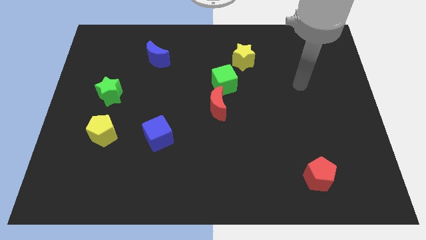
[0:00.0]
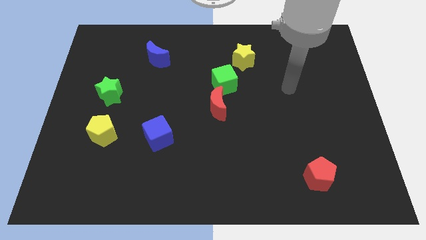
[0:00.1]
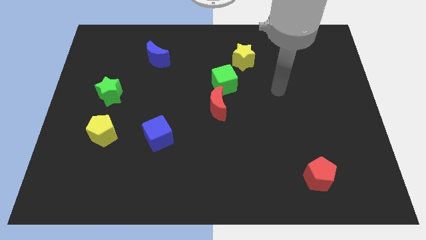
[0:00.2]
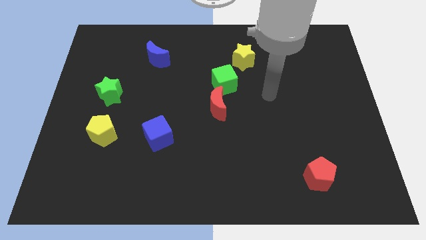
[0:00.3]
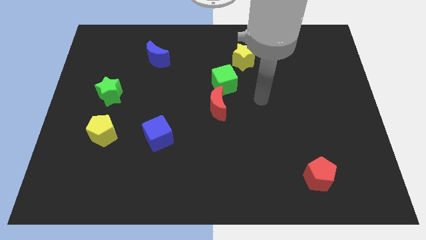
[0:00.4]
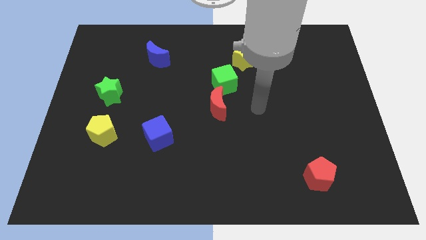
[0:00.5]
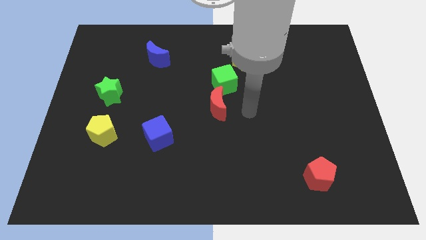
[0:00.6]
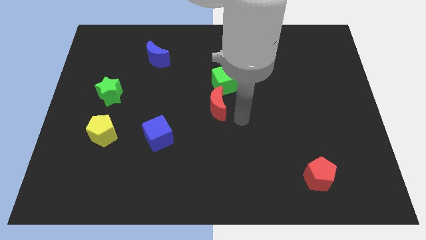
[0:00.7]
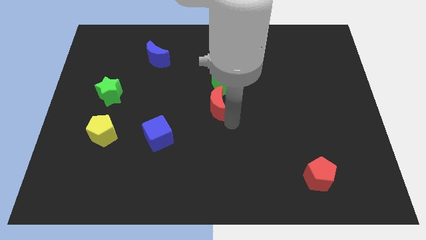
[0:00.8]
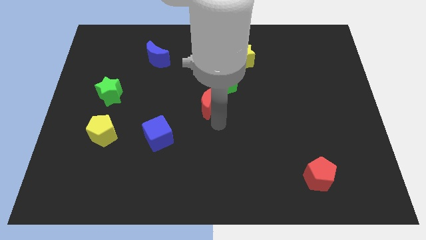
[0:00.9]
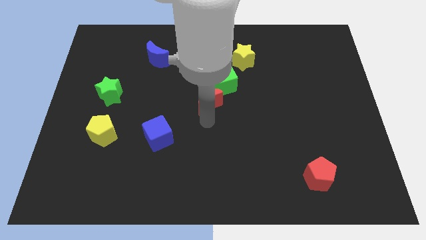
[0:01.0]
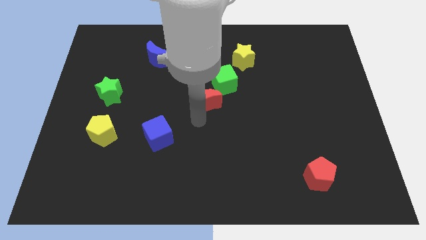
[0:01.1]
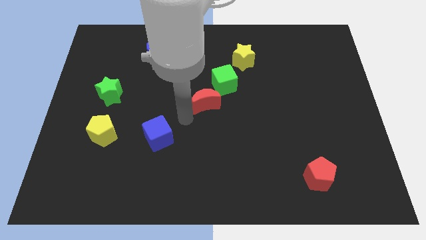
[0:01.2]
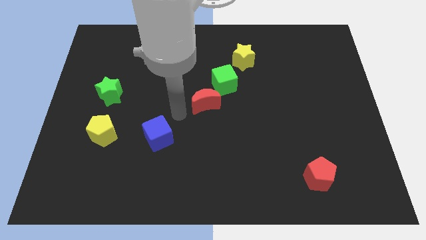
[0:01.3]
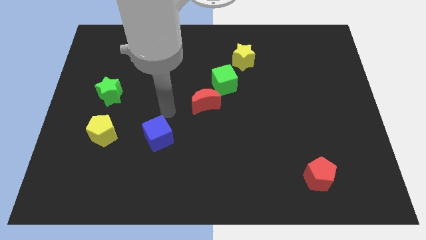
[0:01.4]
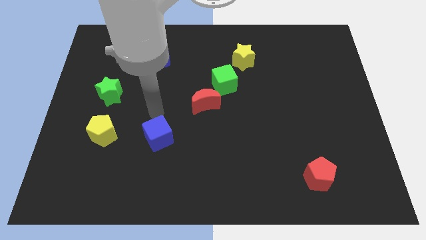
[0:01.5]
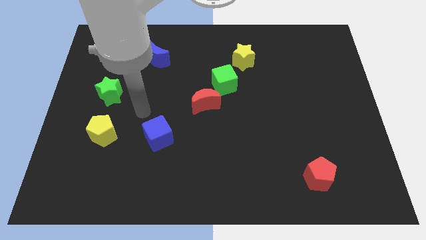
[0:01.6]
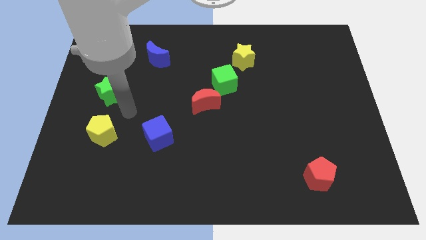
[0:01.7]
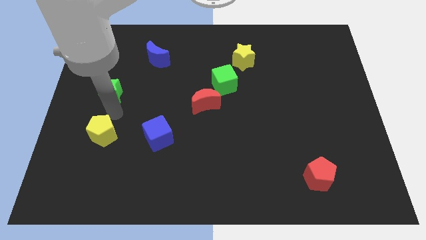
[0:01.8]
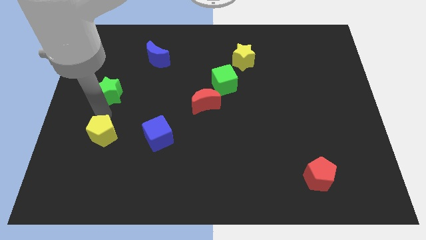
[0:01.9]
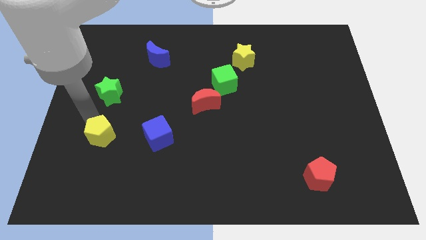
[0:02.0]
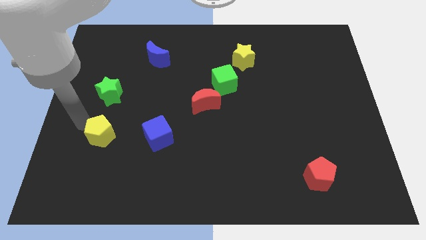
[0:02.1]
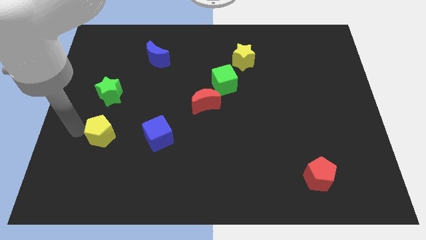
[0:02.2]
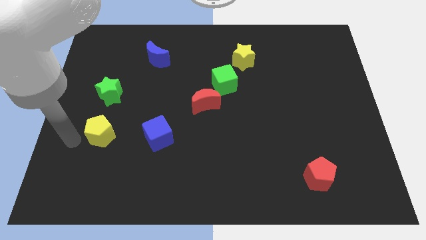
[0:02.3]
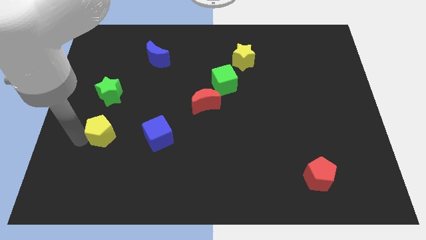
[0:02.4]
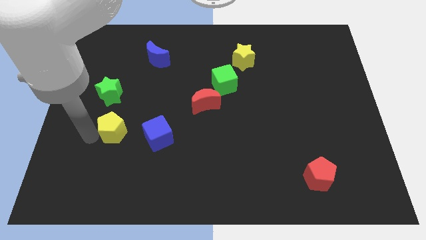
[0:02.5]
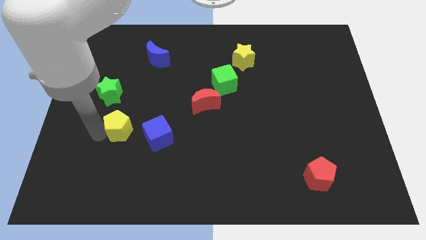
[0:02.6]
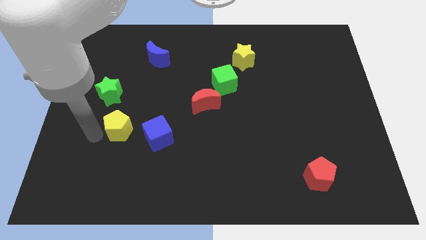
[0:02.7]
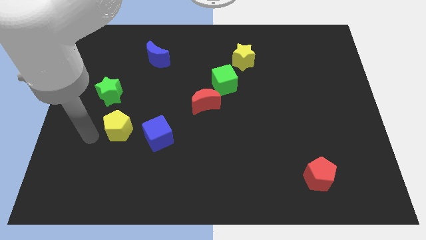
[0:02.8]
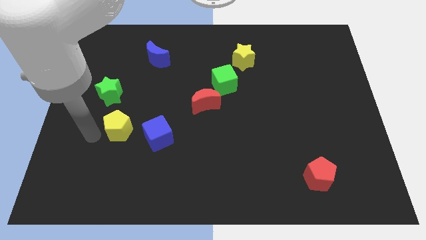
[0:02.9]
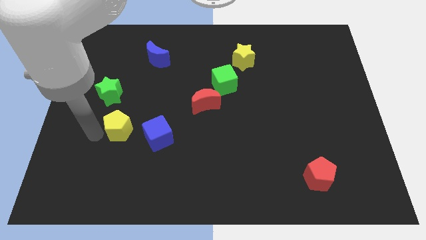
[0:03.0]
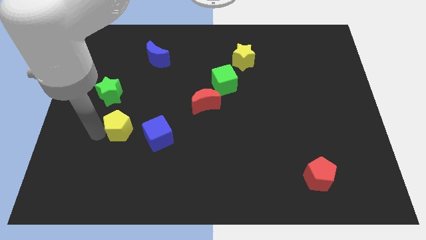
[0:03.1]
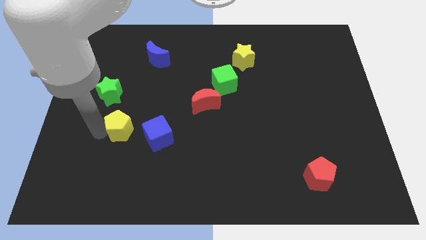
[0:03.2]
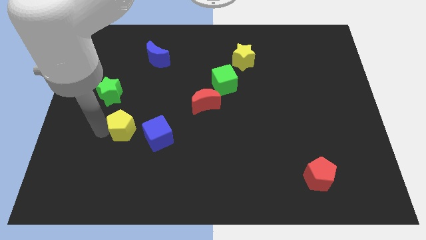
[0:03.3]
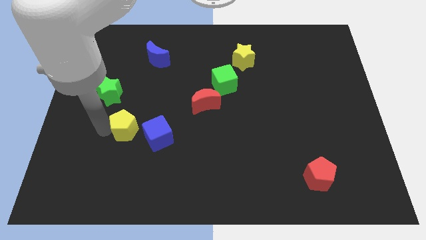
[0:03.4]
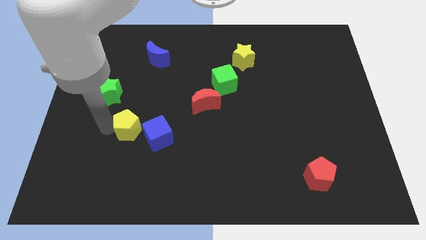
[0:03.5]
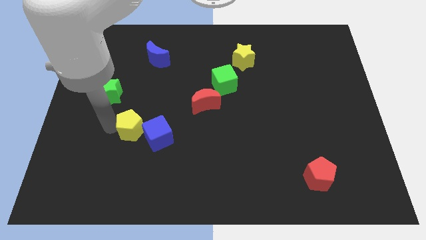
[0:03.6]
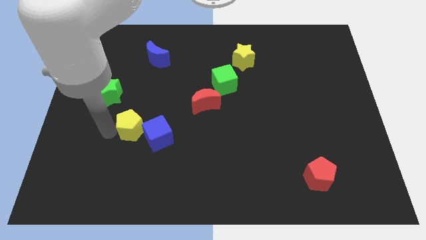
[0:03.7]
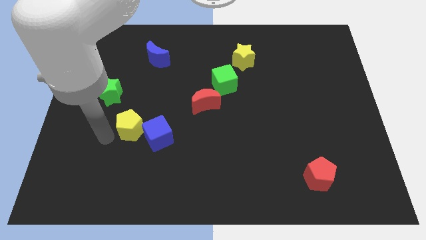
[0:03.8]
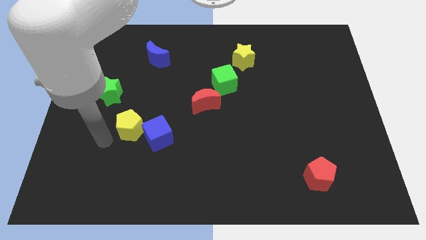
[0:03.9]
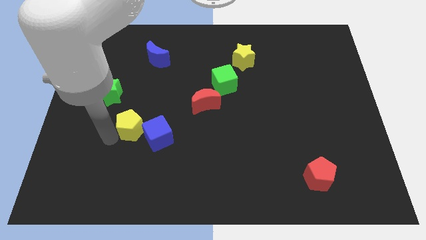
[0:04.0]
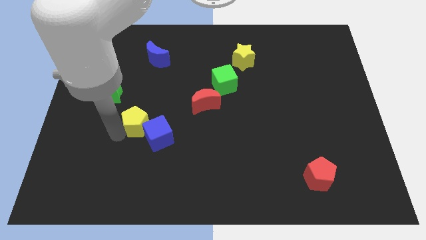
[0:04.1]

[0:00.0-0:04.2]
slightly push the yellow pentagon right

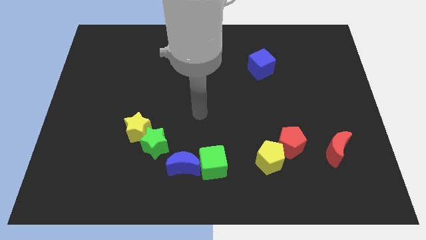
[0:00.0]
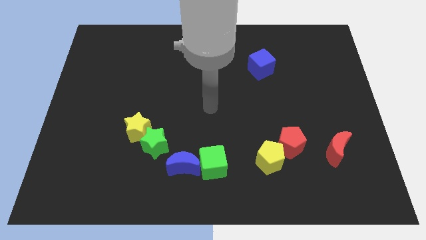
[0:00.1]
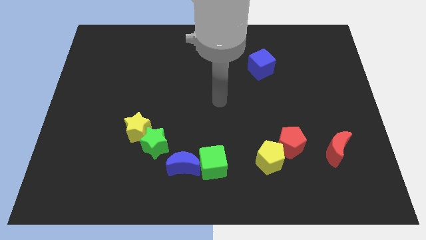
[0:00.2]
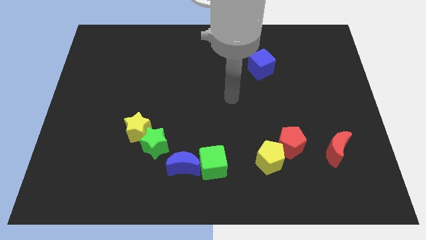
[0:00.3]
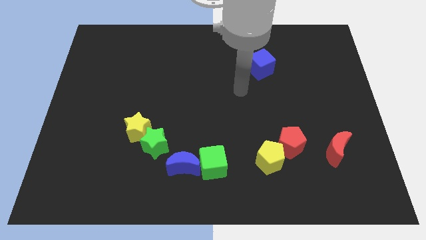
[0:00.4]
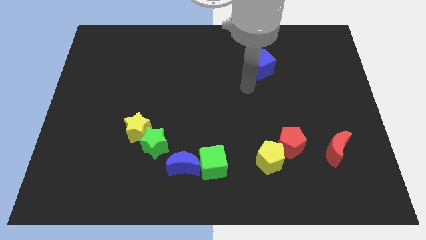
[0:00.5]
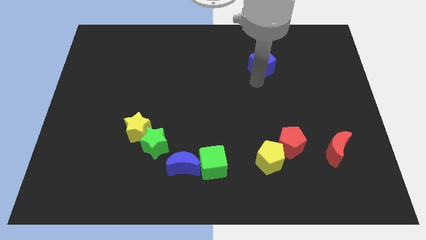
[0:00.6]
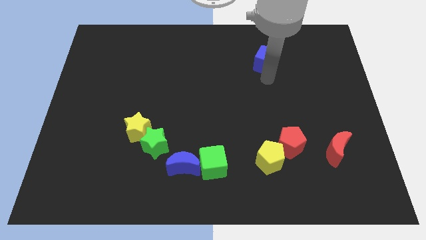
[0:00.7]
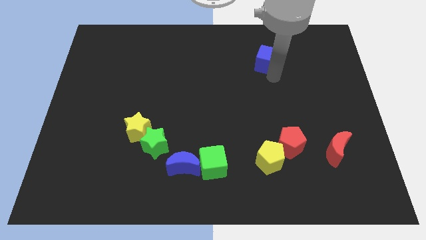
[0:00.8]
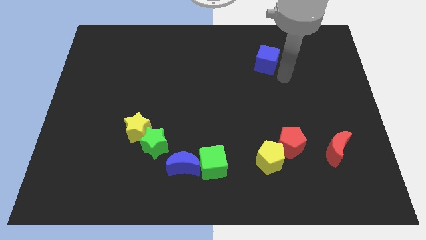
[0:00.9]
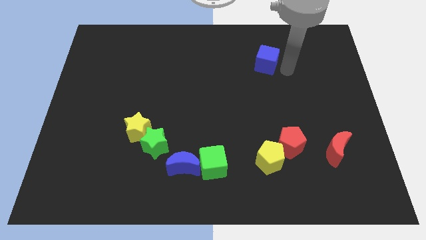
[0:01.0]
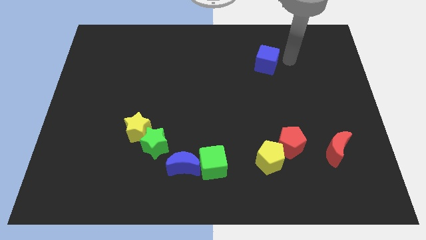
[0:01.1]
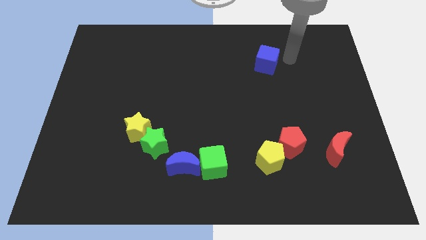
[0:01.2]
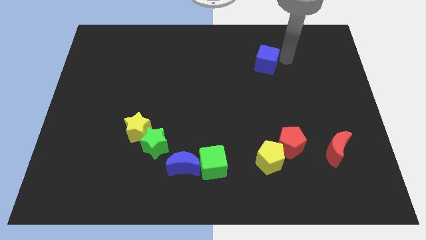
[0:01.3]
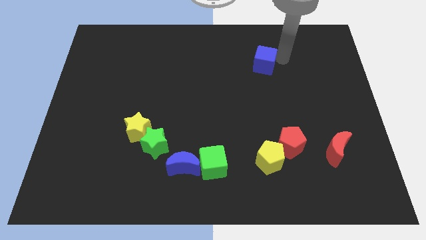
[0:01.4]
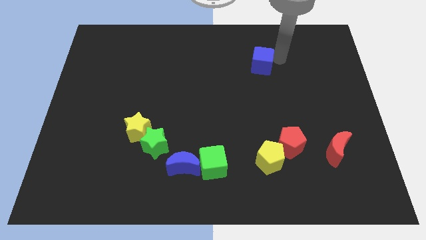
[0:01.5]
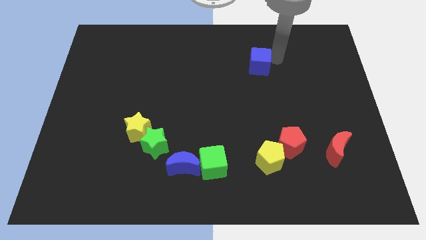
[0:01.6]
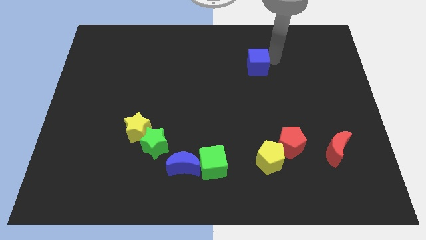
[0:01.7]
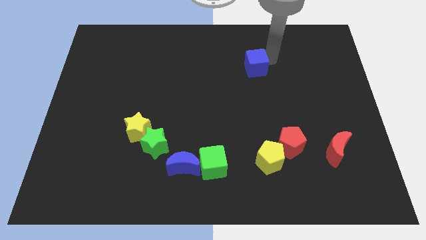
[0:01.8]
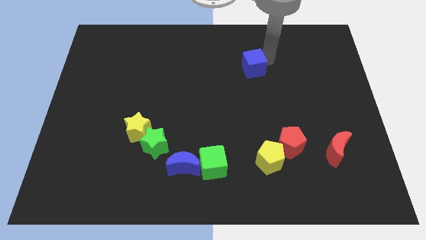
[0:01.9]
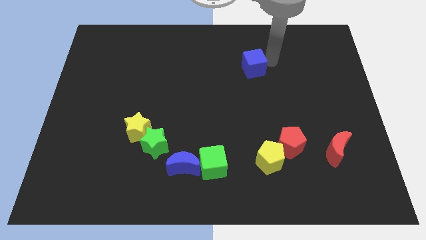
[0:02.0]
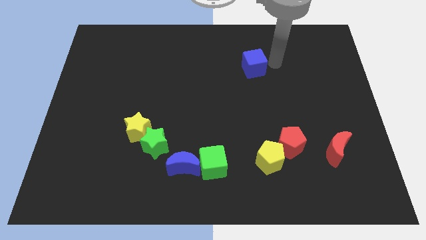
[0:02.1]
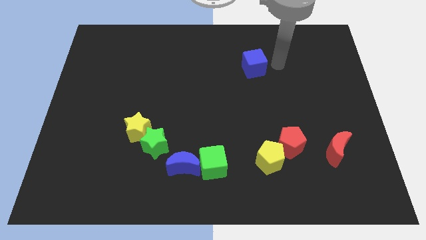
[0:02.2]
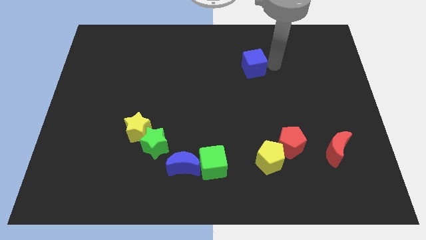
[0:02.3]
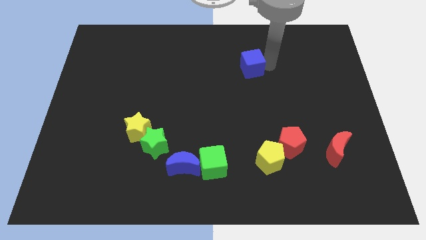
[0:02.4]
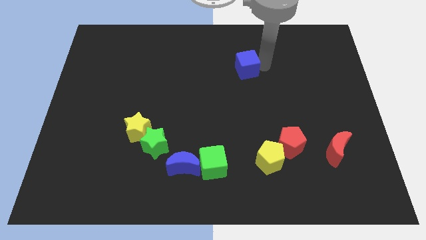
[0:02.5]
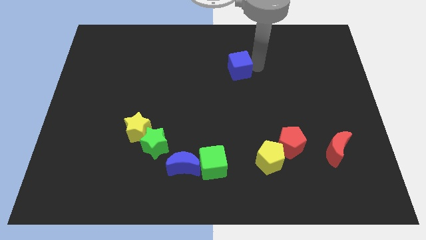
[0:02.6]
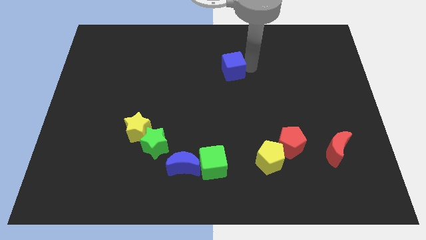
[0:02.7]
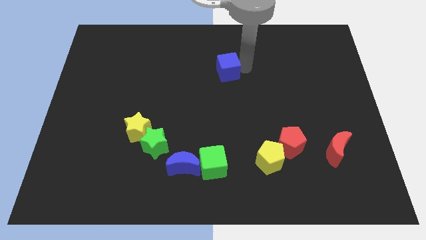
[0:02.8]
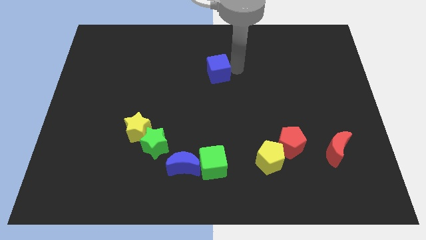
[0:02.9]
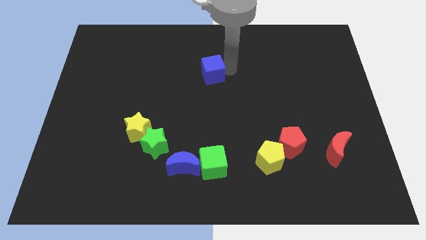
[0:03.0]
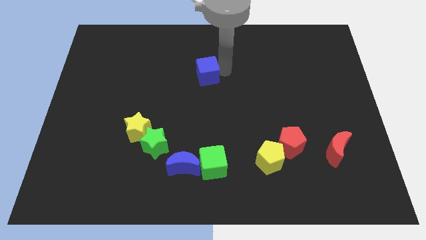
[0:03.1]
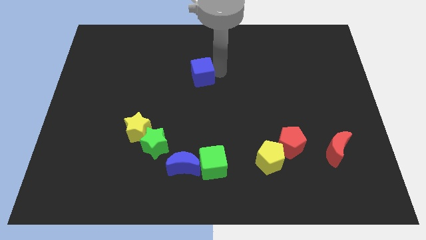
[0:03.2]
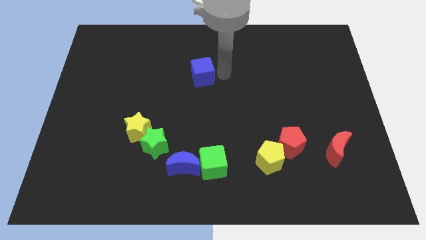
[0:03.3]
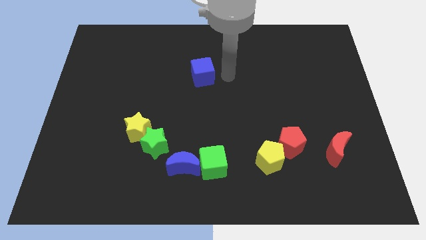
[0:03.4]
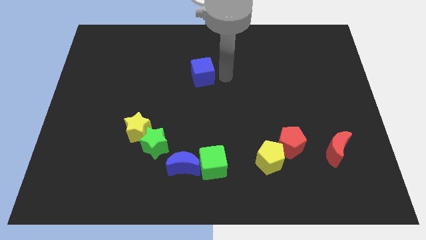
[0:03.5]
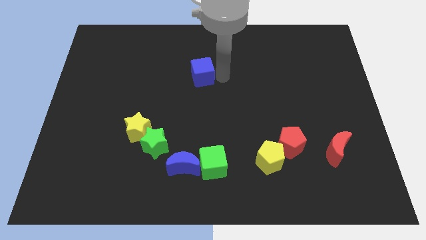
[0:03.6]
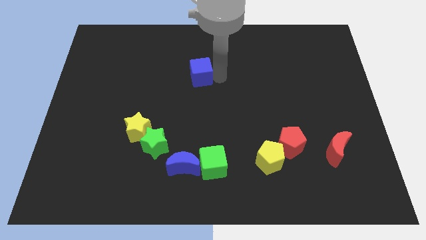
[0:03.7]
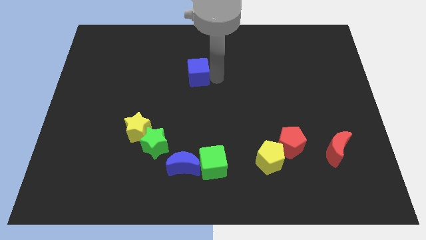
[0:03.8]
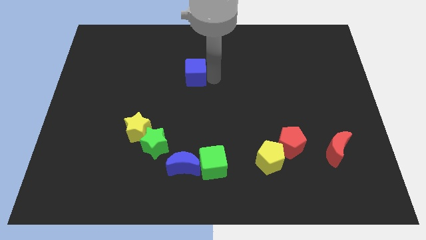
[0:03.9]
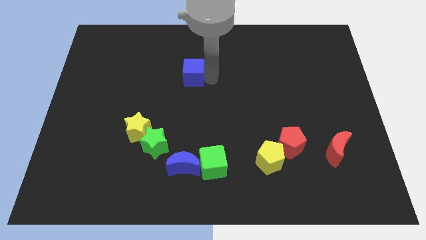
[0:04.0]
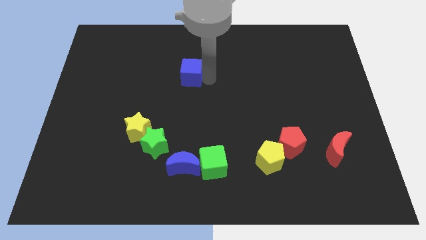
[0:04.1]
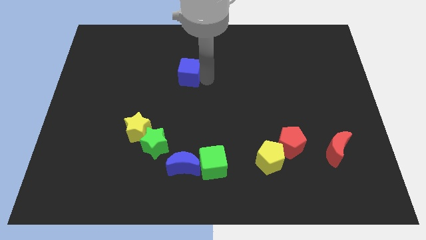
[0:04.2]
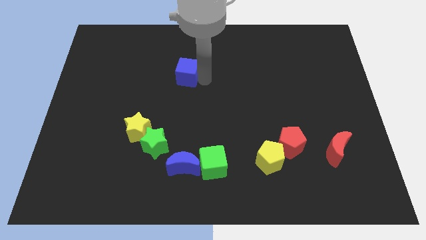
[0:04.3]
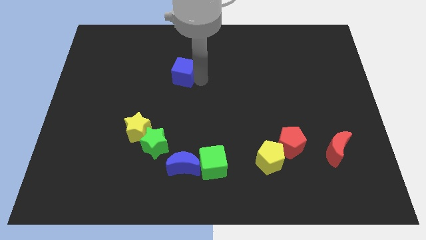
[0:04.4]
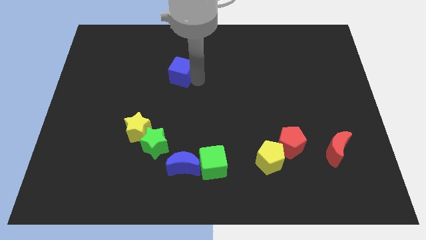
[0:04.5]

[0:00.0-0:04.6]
move the blue cube to the left
